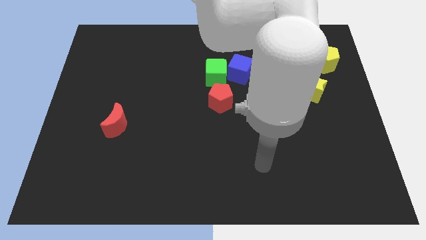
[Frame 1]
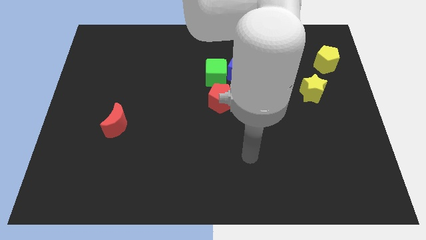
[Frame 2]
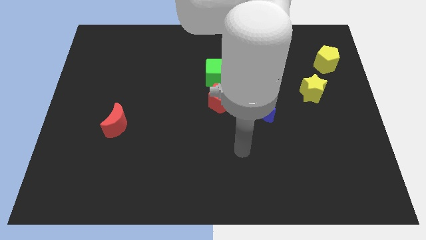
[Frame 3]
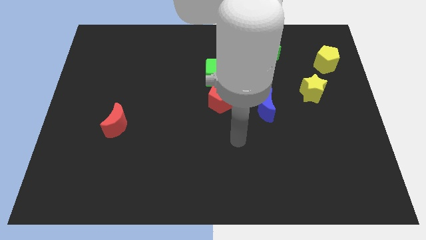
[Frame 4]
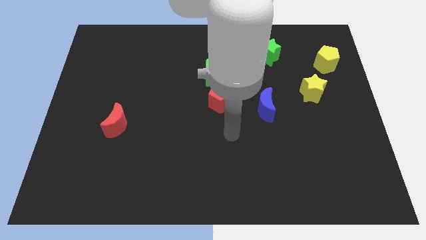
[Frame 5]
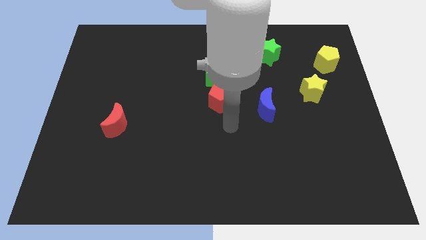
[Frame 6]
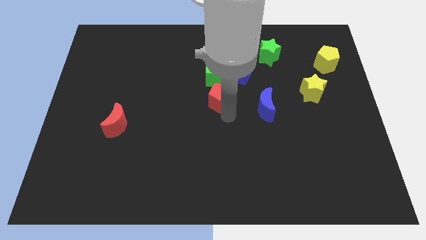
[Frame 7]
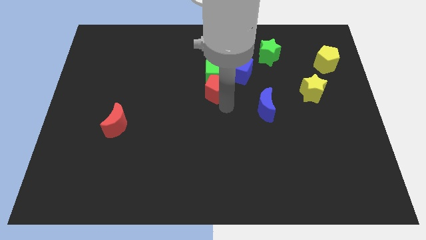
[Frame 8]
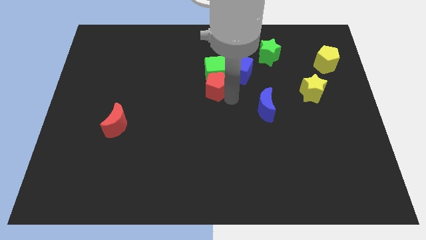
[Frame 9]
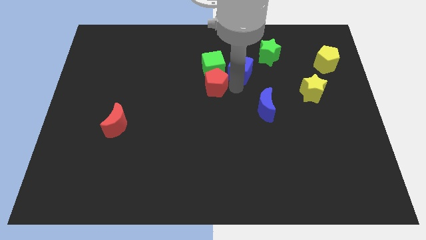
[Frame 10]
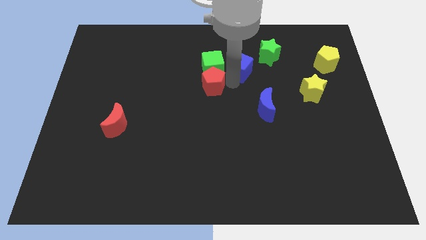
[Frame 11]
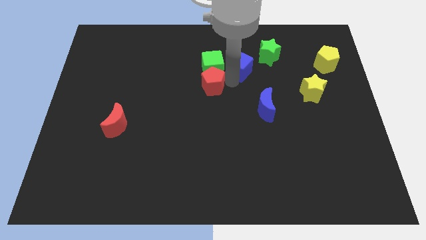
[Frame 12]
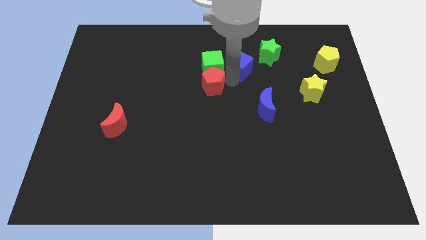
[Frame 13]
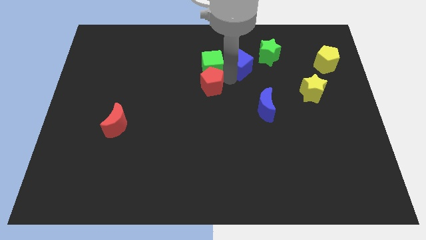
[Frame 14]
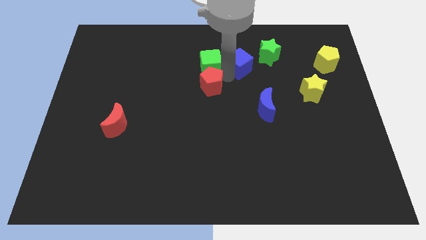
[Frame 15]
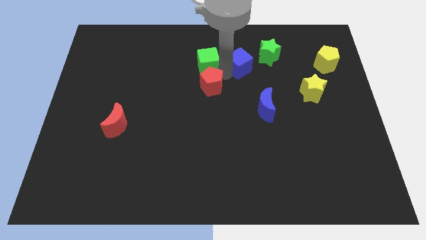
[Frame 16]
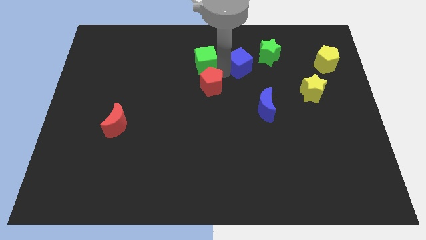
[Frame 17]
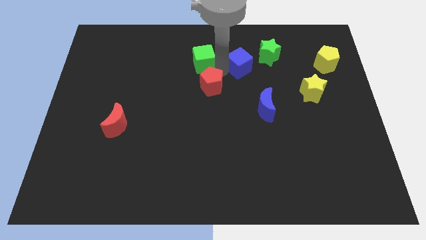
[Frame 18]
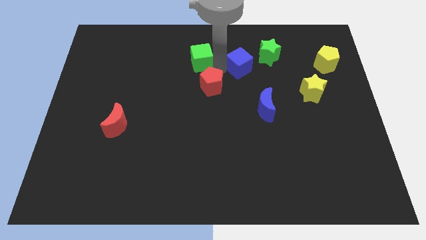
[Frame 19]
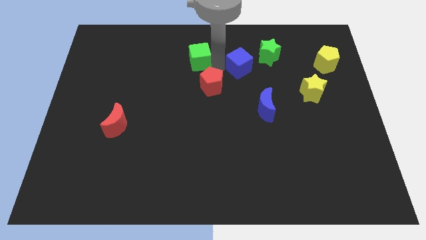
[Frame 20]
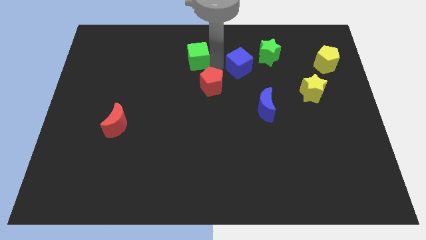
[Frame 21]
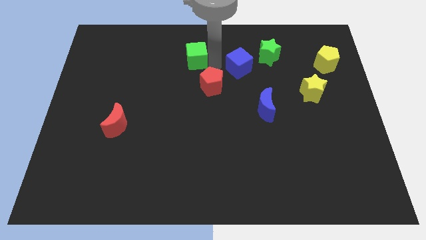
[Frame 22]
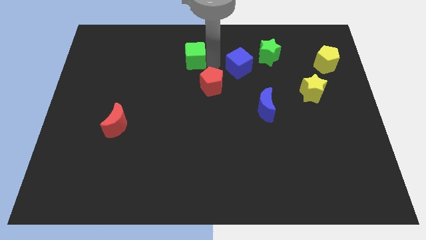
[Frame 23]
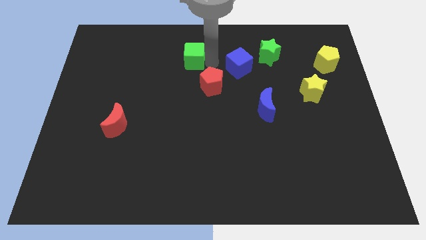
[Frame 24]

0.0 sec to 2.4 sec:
separate the green cube from the blue cube and red pentagon

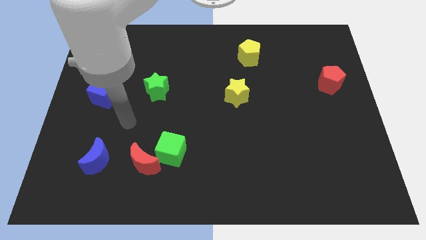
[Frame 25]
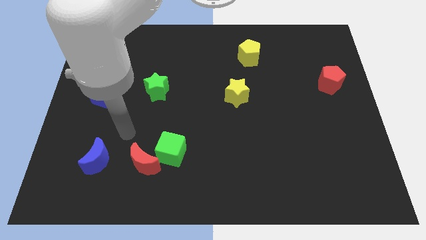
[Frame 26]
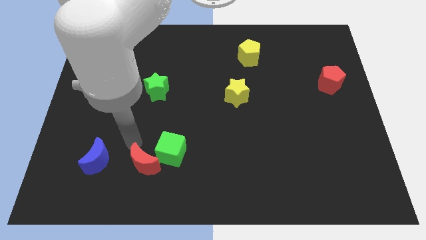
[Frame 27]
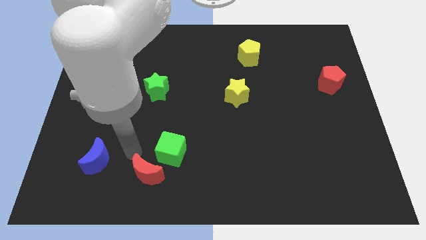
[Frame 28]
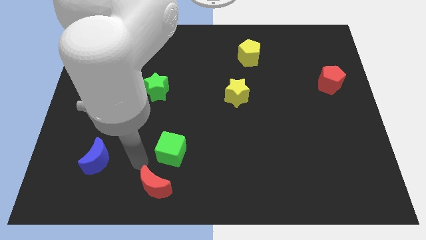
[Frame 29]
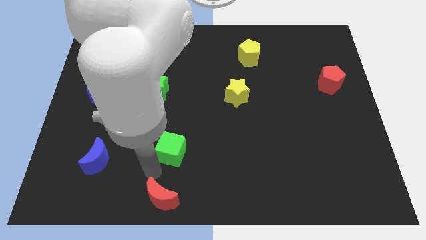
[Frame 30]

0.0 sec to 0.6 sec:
pull the green cube apart from the red moon

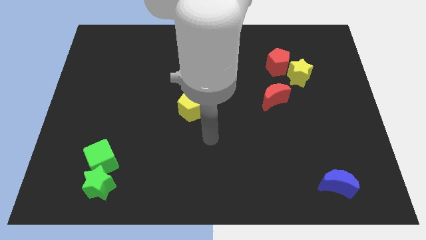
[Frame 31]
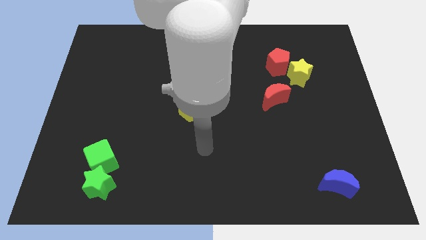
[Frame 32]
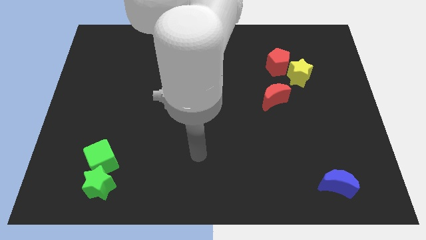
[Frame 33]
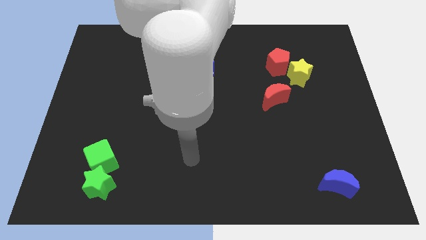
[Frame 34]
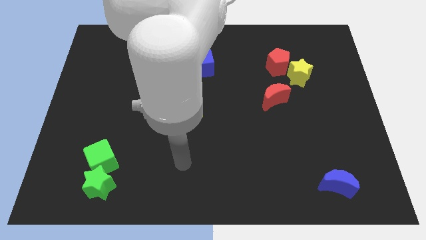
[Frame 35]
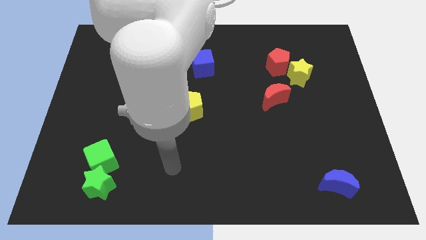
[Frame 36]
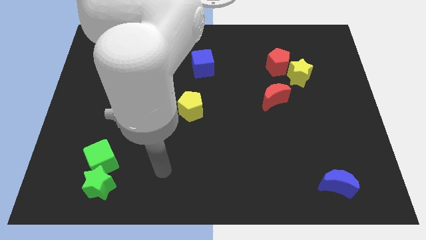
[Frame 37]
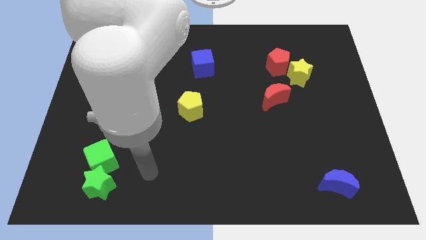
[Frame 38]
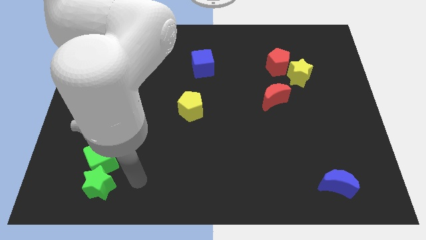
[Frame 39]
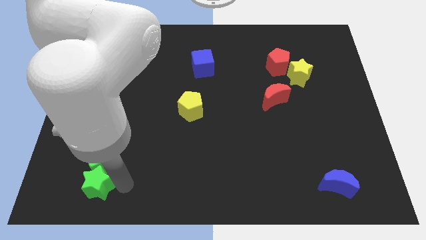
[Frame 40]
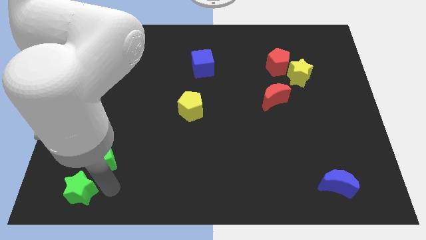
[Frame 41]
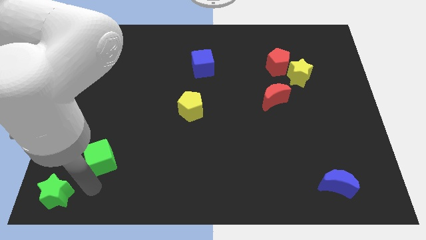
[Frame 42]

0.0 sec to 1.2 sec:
move the green cube away from the green star

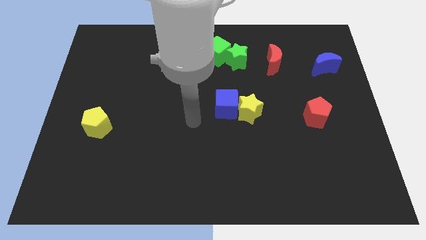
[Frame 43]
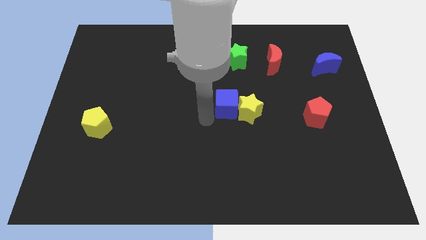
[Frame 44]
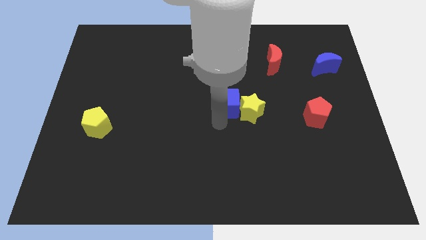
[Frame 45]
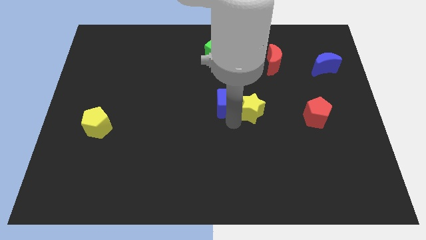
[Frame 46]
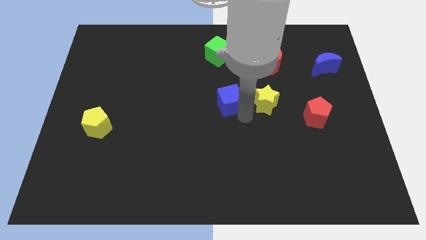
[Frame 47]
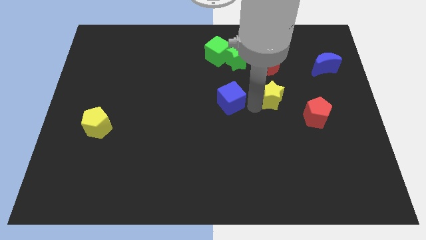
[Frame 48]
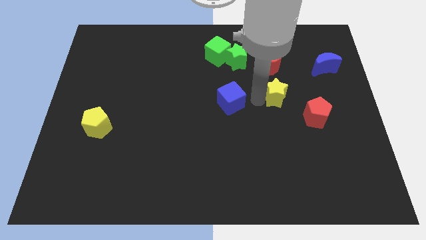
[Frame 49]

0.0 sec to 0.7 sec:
move the blue cube away from the yellow star

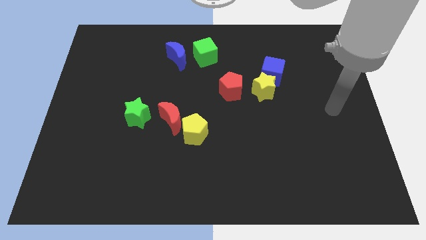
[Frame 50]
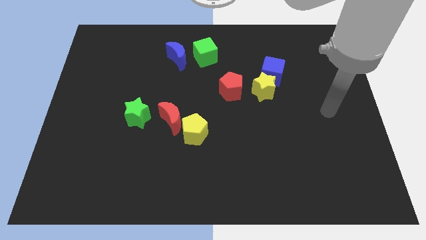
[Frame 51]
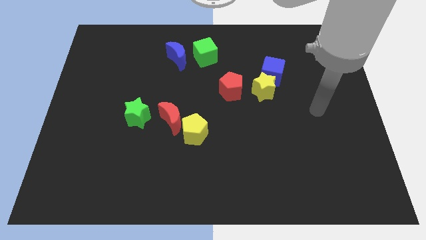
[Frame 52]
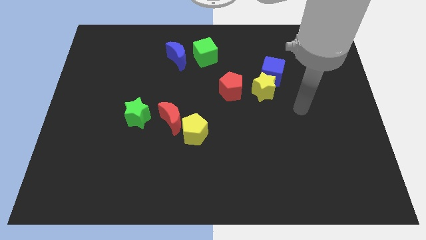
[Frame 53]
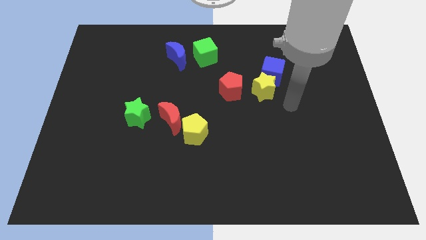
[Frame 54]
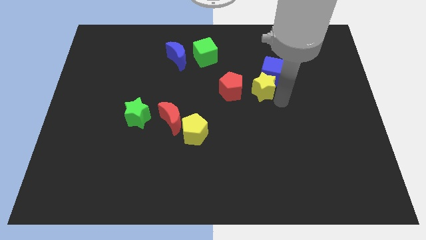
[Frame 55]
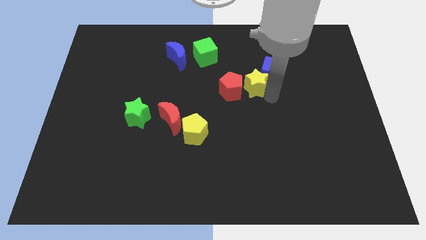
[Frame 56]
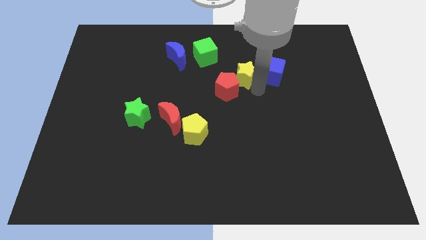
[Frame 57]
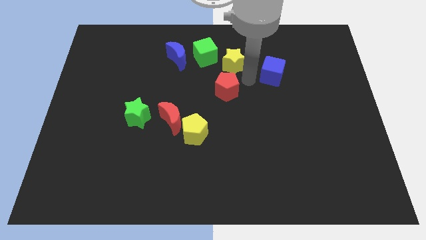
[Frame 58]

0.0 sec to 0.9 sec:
pull the blue cube apart from the yellow star

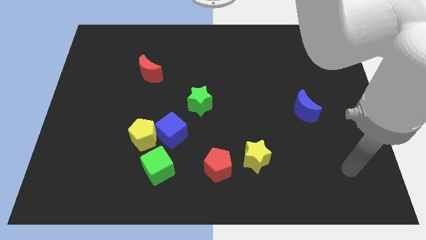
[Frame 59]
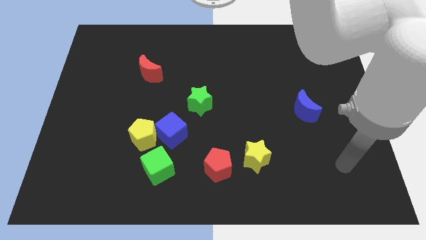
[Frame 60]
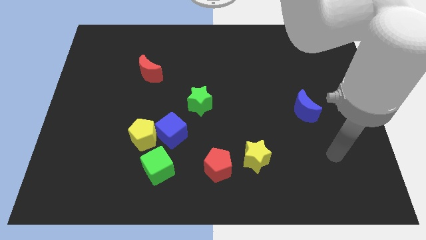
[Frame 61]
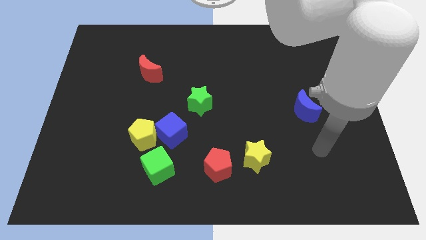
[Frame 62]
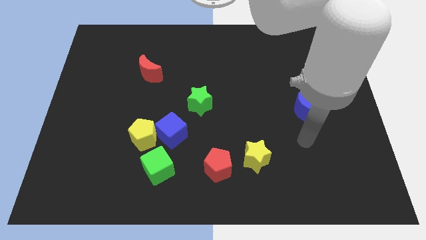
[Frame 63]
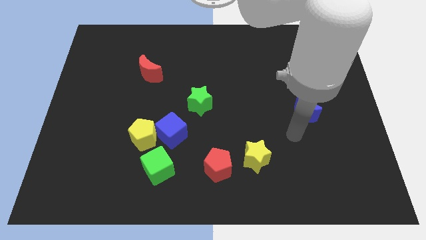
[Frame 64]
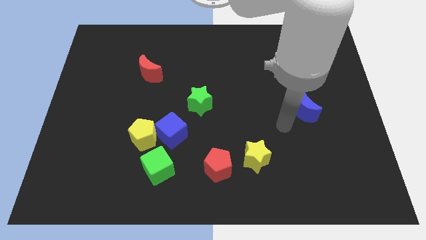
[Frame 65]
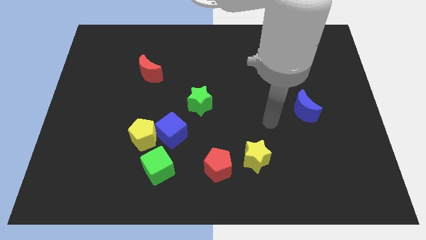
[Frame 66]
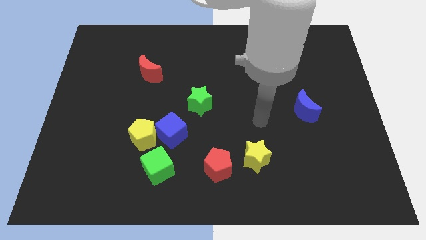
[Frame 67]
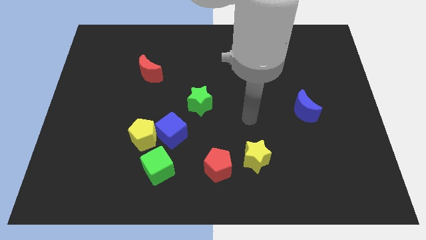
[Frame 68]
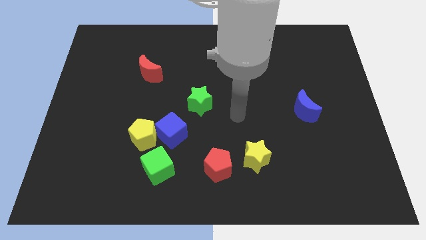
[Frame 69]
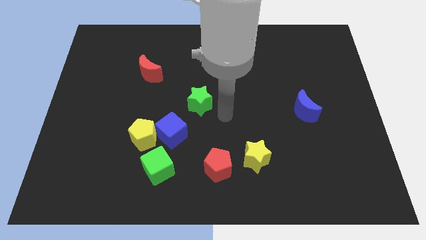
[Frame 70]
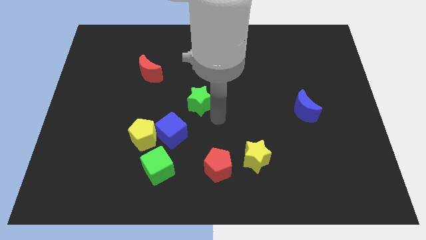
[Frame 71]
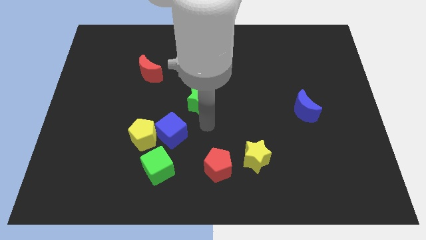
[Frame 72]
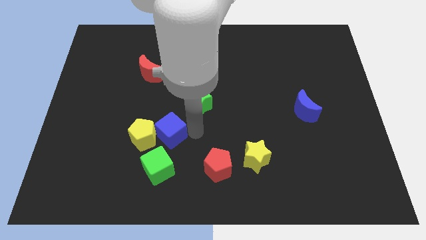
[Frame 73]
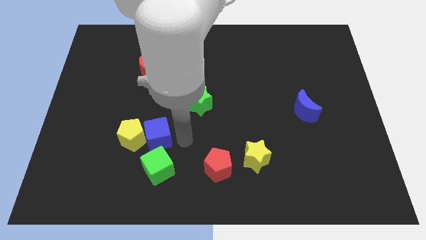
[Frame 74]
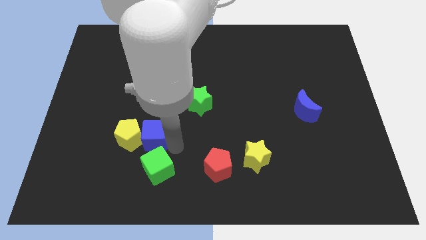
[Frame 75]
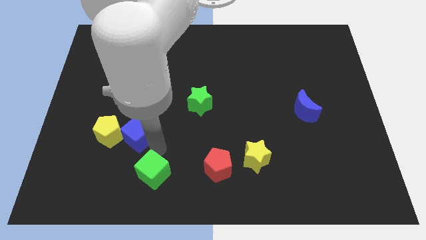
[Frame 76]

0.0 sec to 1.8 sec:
move the yellow pentagon away from the blue cube and green cube

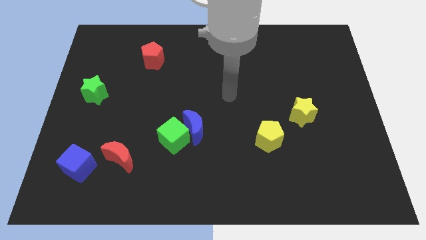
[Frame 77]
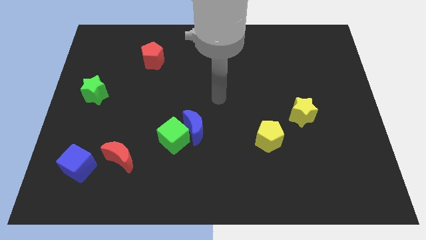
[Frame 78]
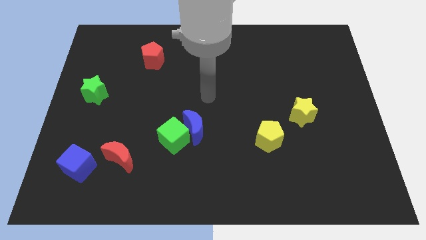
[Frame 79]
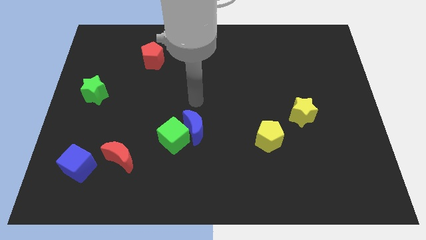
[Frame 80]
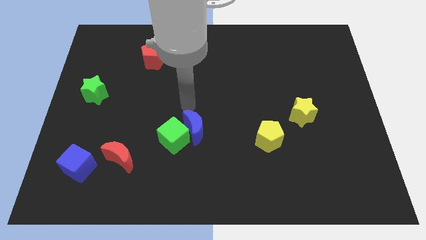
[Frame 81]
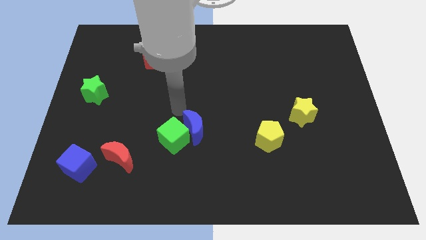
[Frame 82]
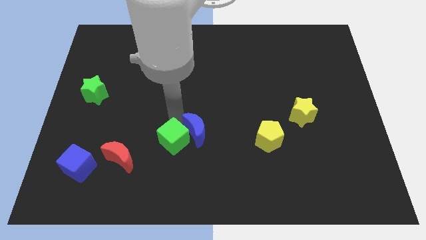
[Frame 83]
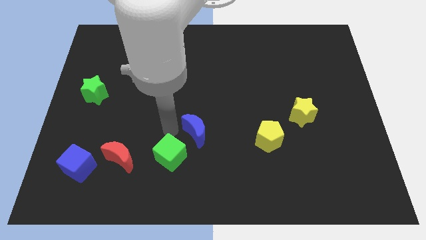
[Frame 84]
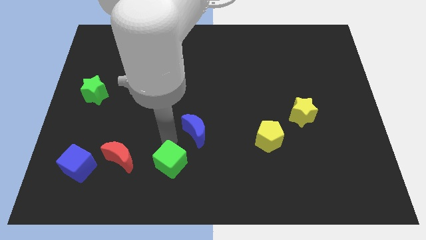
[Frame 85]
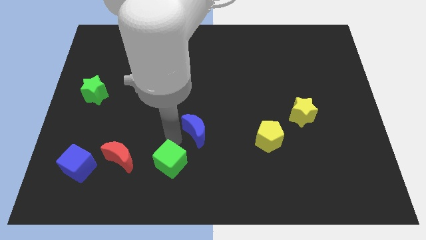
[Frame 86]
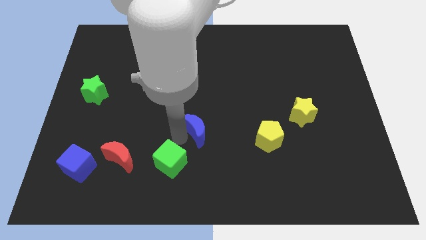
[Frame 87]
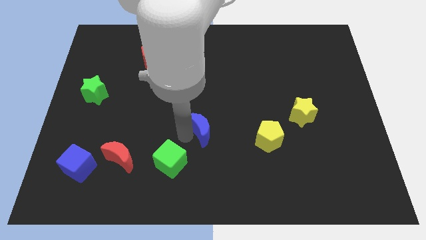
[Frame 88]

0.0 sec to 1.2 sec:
move the blue moon away from the green cube

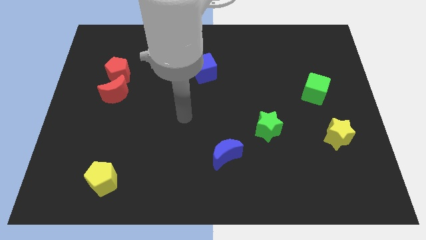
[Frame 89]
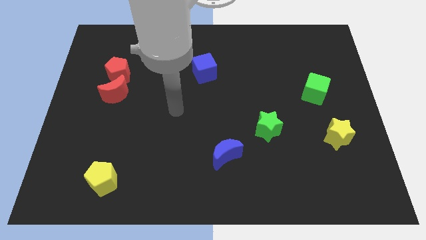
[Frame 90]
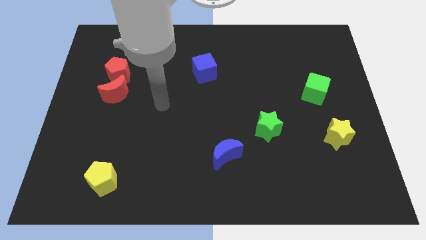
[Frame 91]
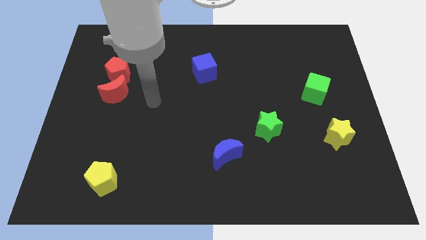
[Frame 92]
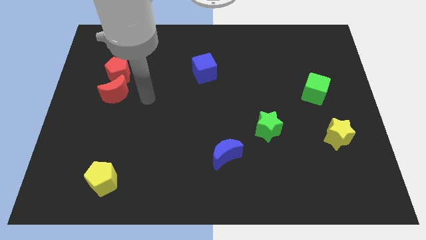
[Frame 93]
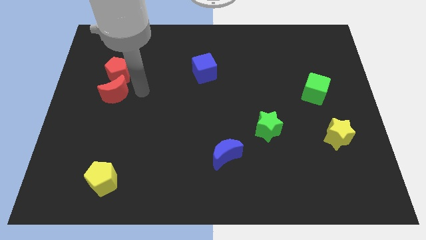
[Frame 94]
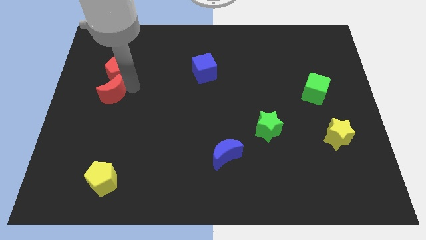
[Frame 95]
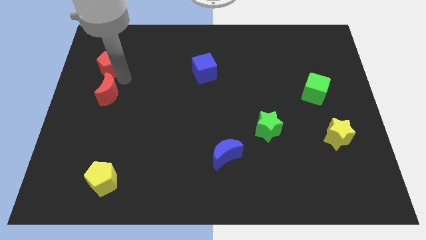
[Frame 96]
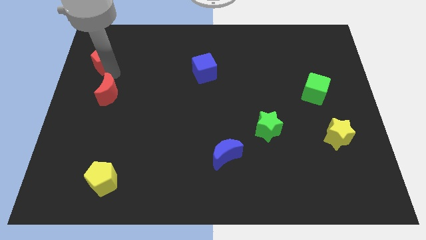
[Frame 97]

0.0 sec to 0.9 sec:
separate the red moon from the red pentagon
